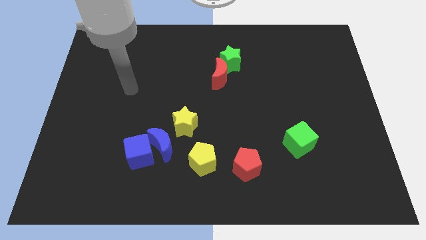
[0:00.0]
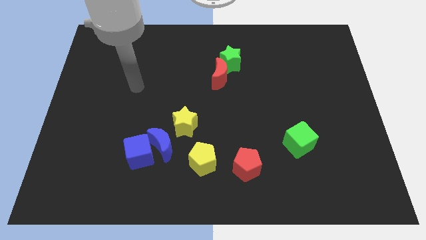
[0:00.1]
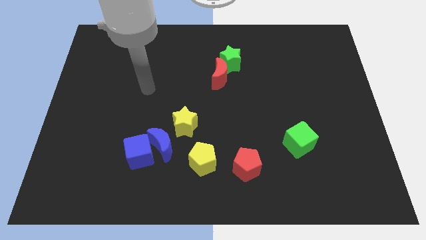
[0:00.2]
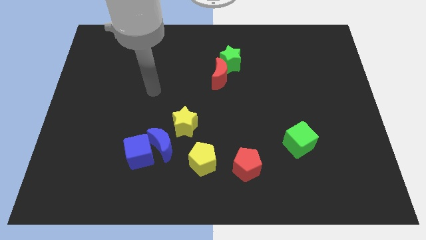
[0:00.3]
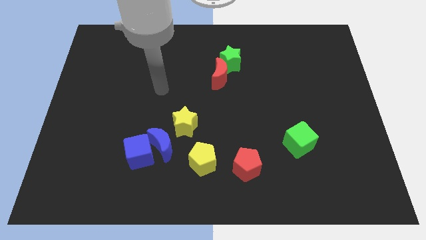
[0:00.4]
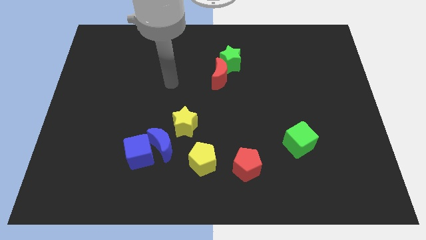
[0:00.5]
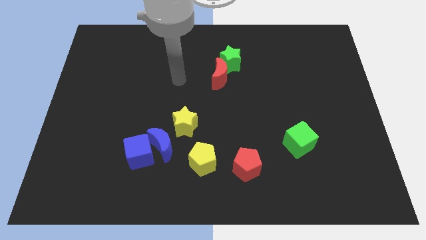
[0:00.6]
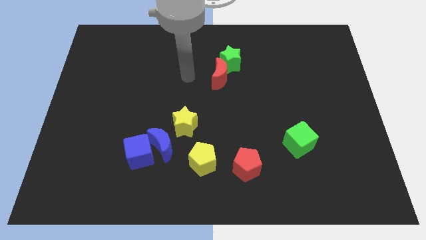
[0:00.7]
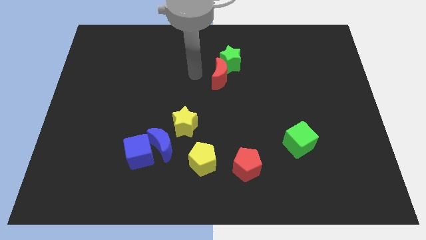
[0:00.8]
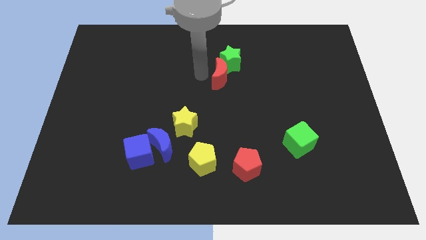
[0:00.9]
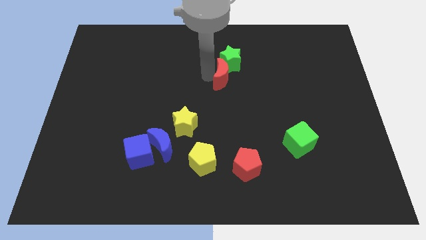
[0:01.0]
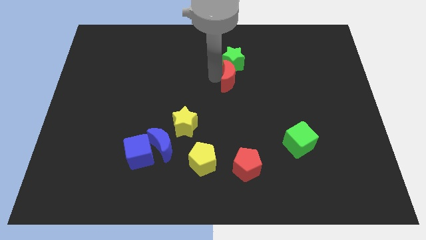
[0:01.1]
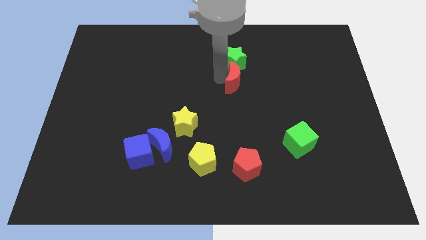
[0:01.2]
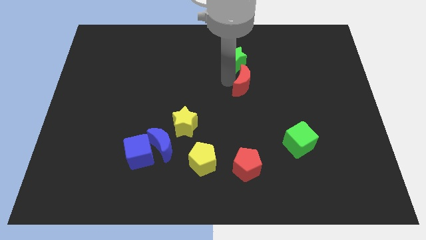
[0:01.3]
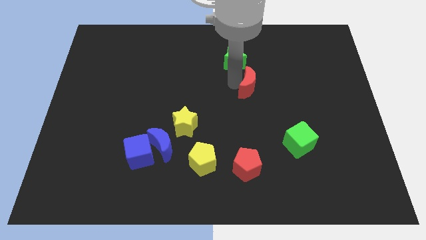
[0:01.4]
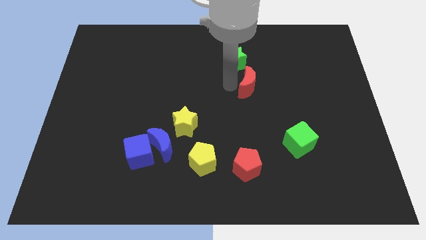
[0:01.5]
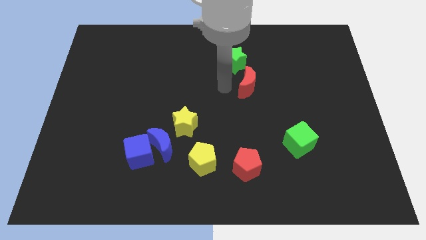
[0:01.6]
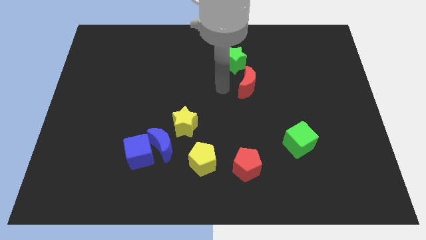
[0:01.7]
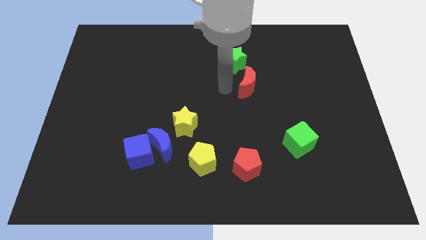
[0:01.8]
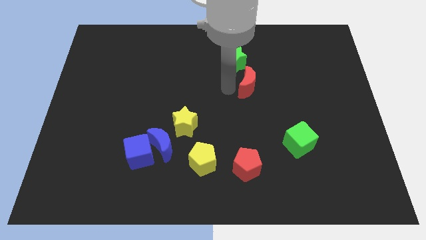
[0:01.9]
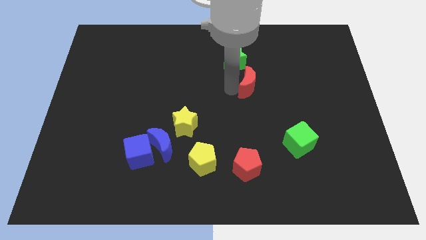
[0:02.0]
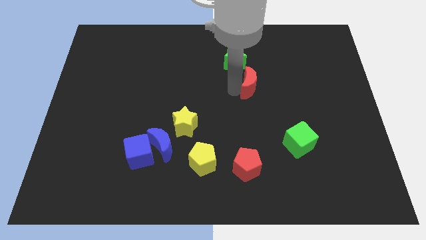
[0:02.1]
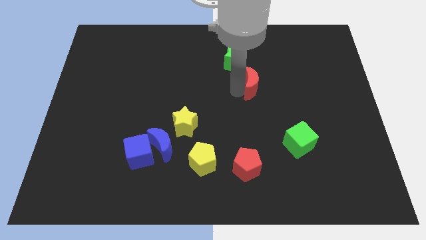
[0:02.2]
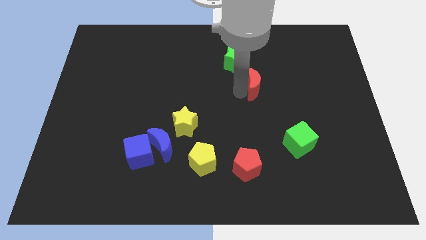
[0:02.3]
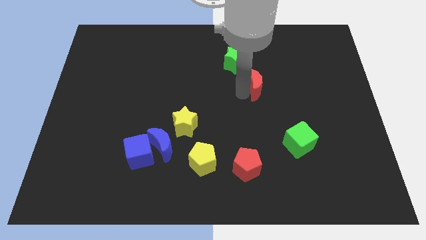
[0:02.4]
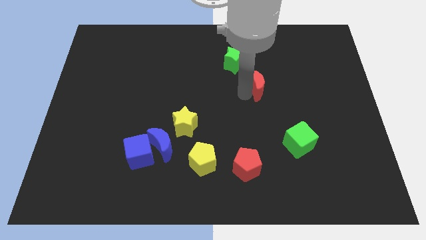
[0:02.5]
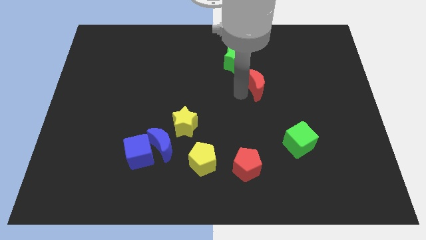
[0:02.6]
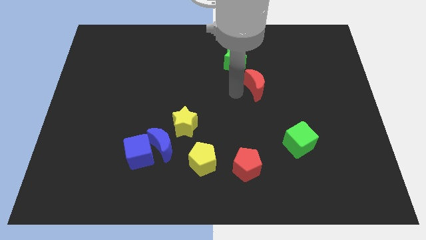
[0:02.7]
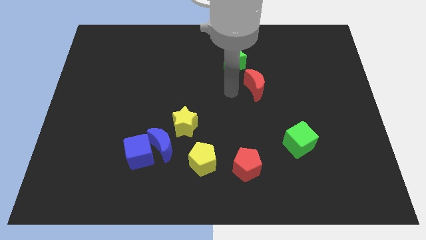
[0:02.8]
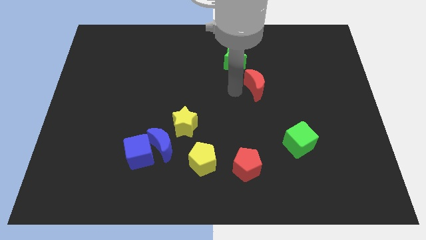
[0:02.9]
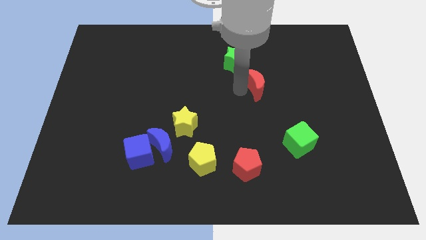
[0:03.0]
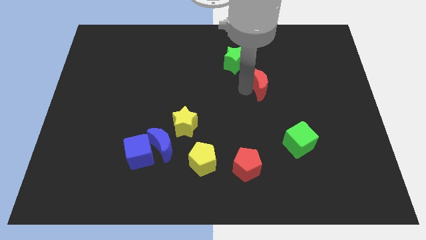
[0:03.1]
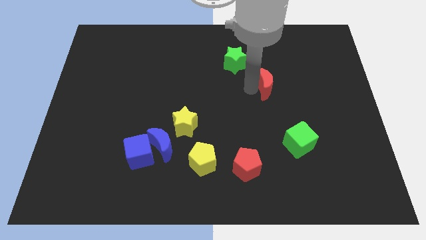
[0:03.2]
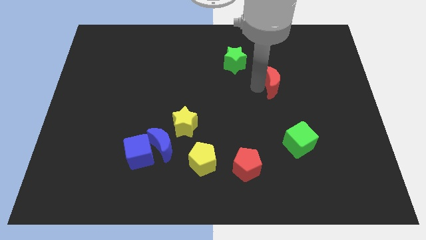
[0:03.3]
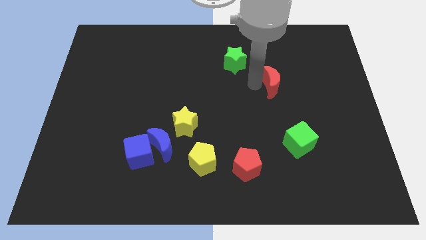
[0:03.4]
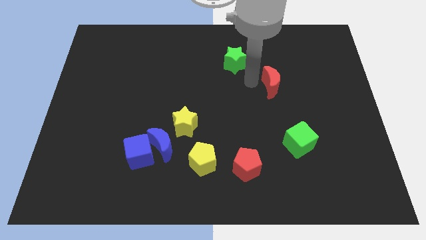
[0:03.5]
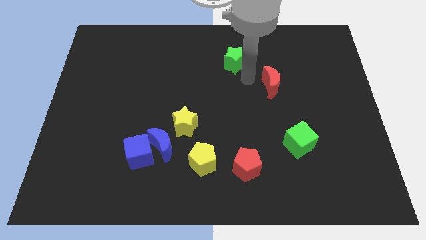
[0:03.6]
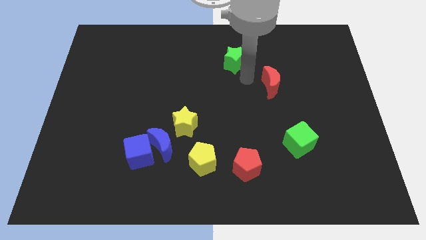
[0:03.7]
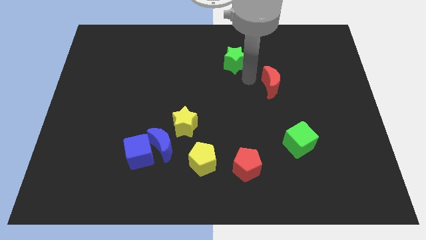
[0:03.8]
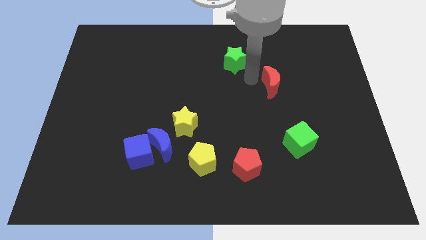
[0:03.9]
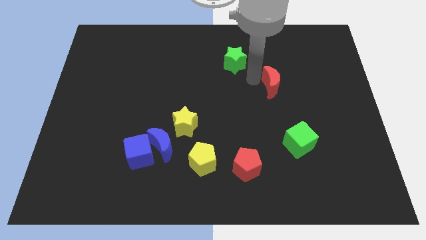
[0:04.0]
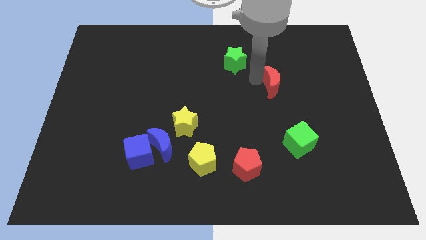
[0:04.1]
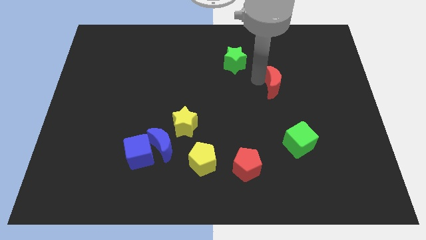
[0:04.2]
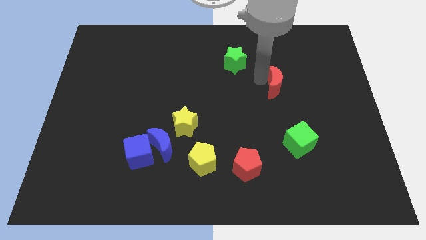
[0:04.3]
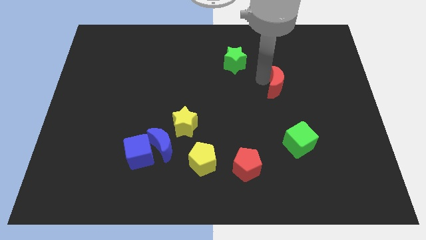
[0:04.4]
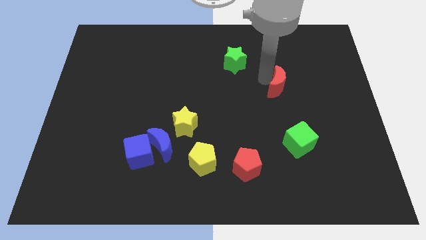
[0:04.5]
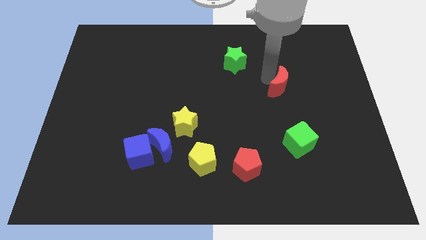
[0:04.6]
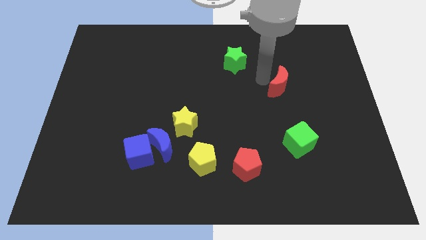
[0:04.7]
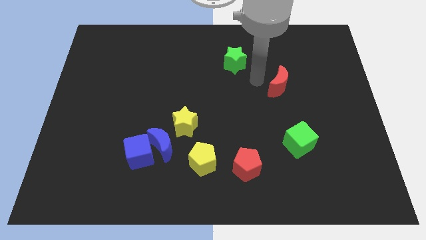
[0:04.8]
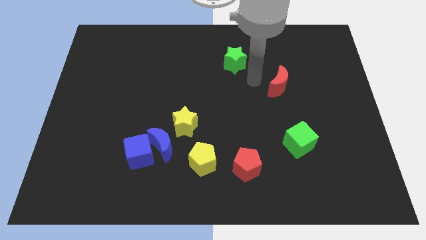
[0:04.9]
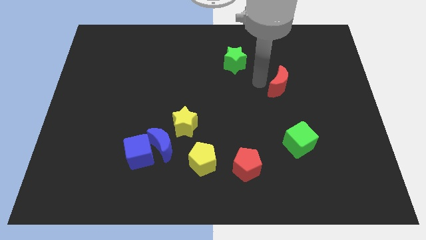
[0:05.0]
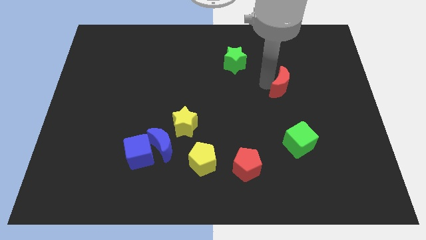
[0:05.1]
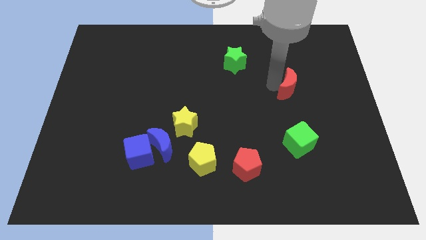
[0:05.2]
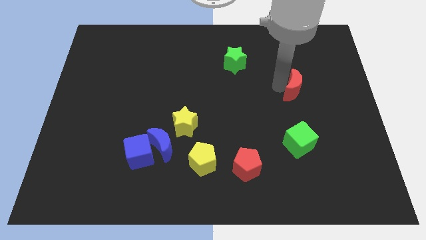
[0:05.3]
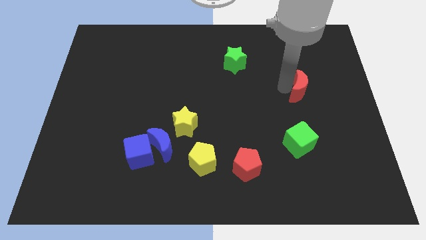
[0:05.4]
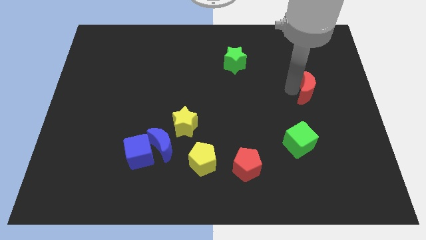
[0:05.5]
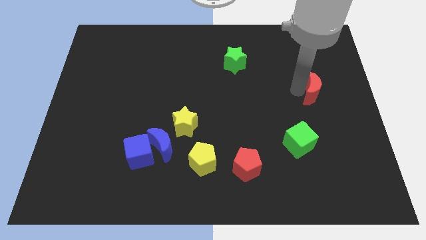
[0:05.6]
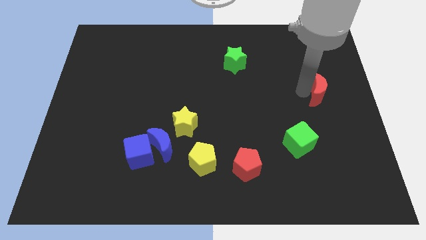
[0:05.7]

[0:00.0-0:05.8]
put the red moon to the center right
